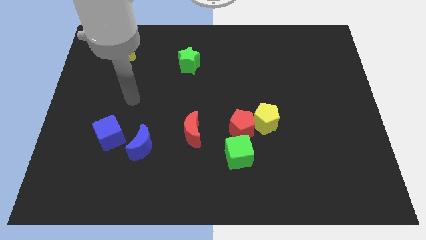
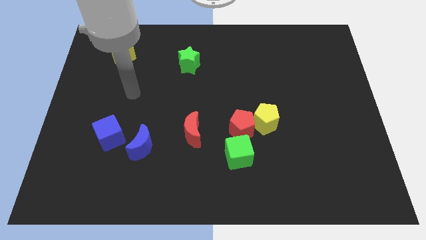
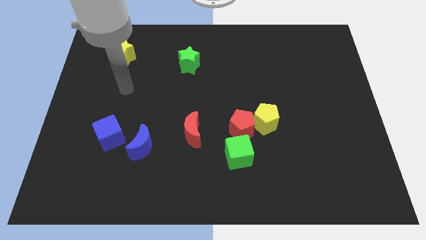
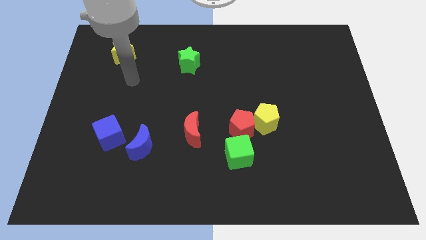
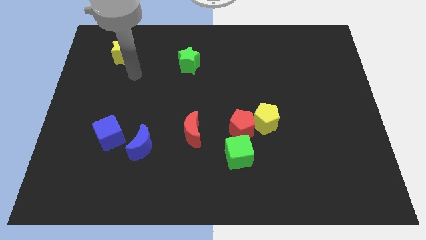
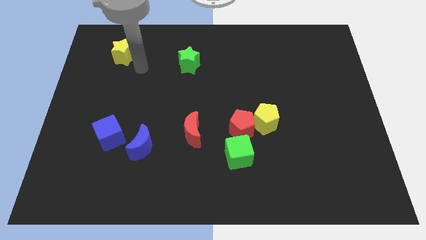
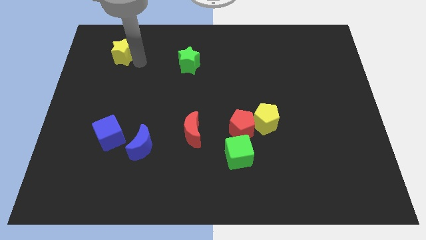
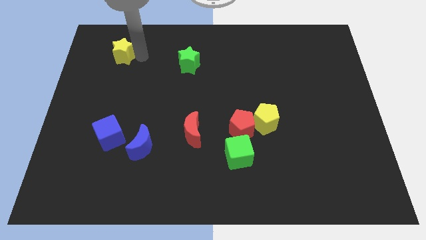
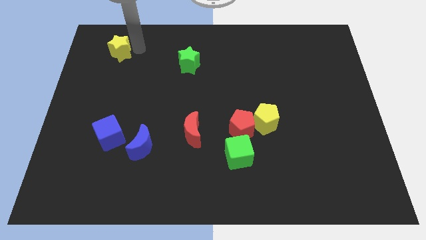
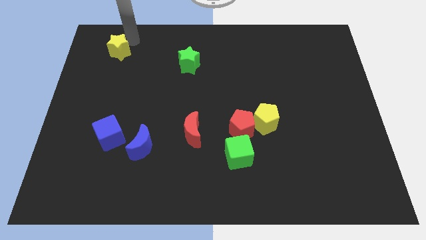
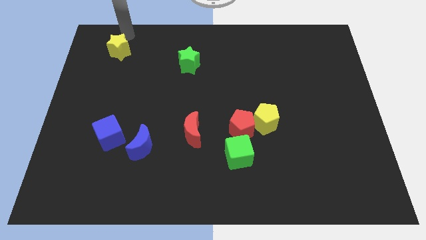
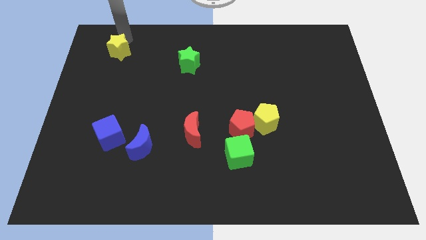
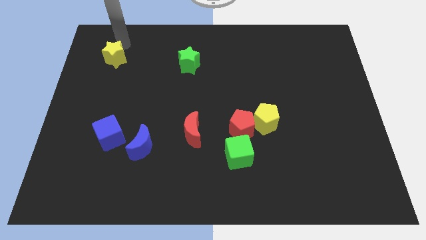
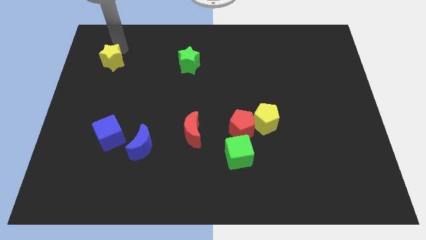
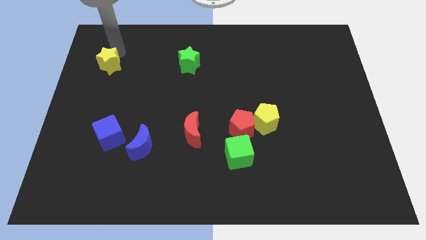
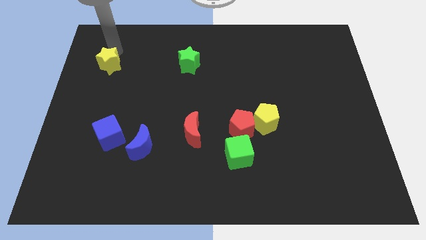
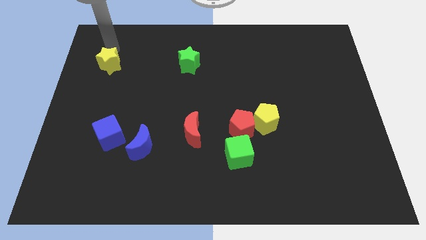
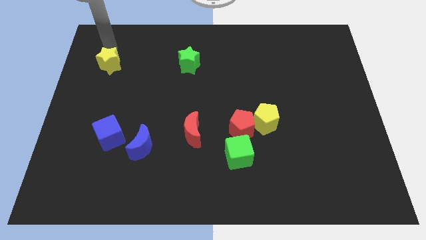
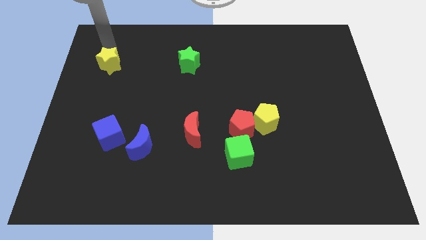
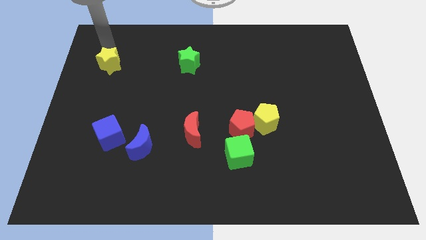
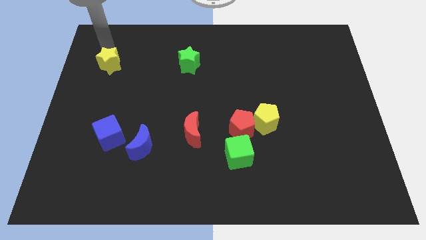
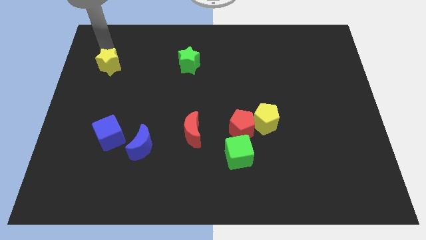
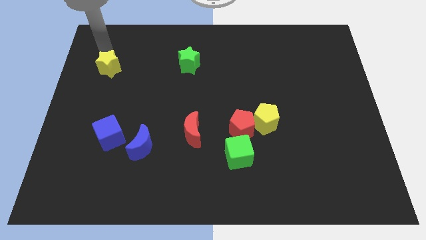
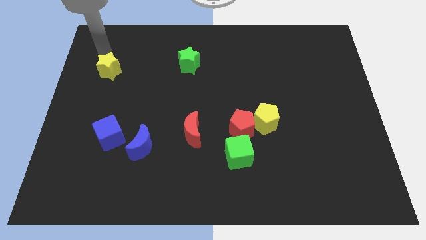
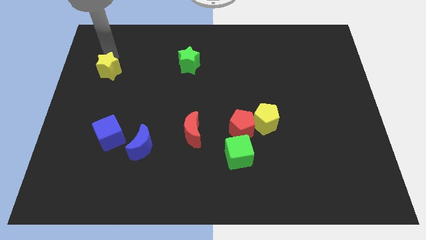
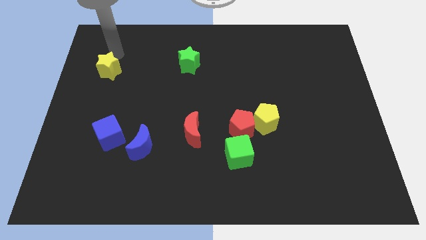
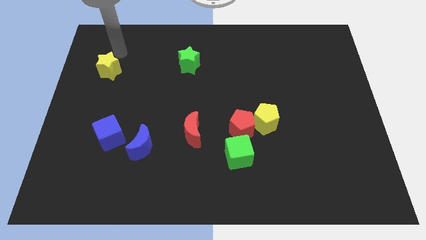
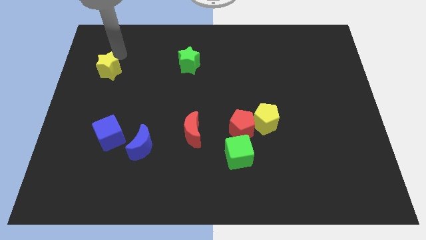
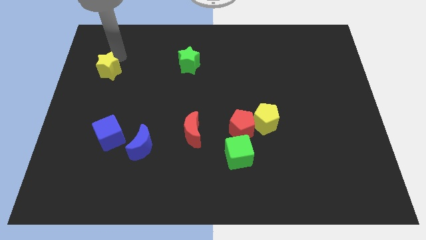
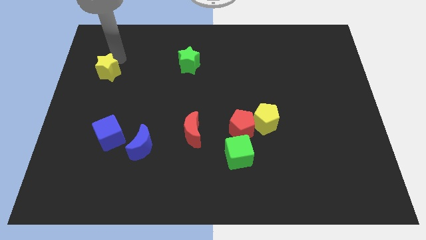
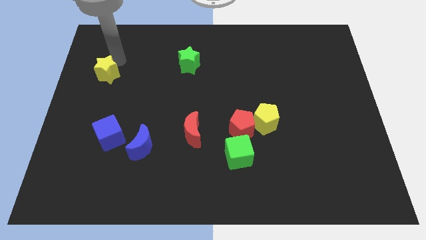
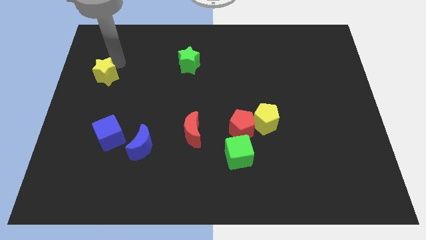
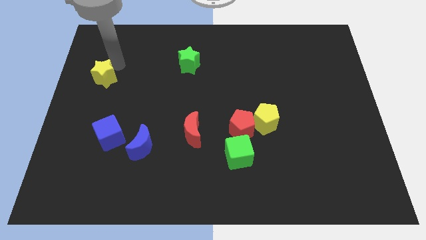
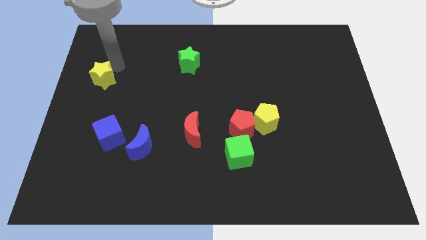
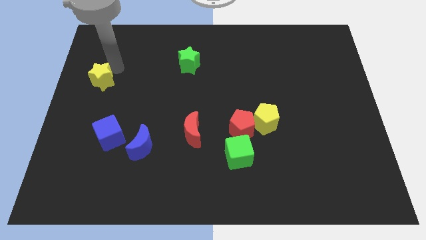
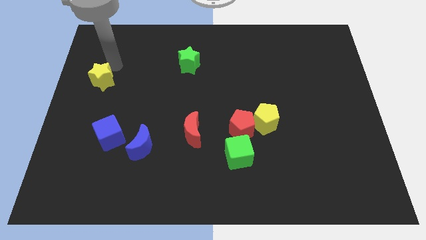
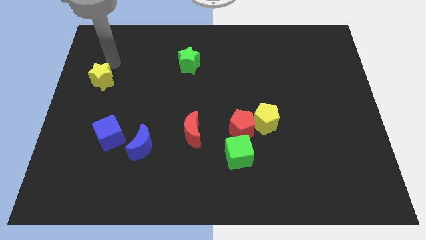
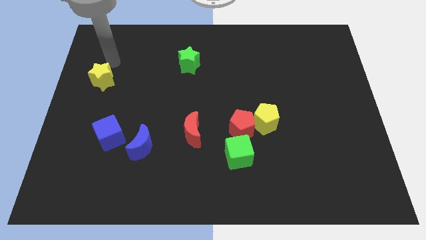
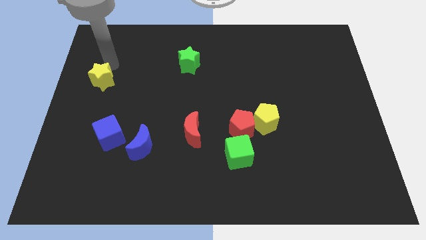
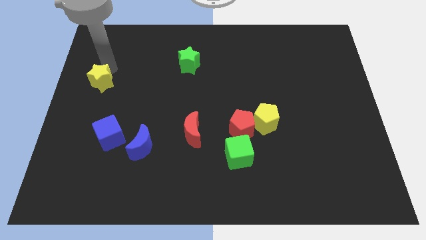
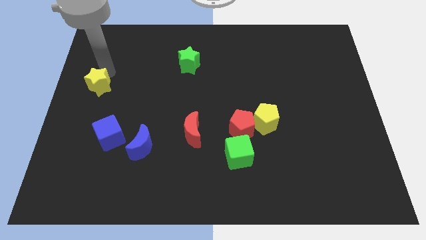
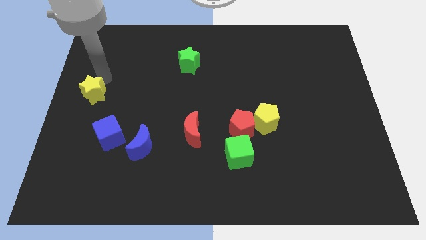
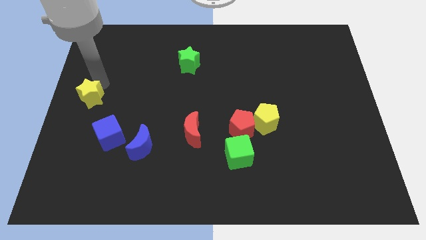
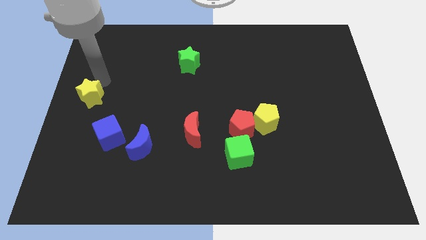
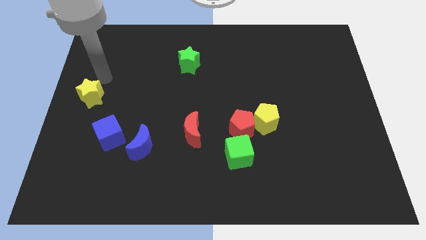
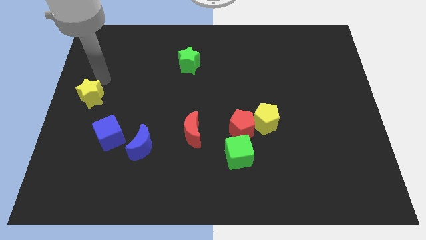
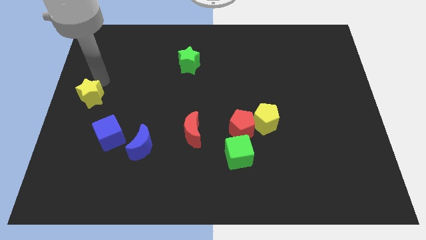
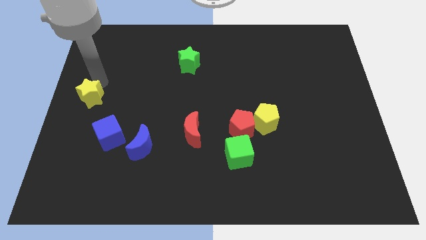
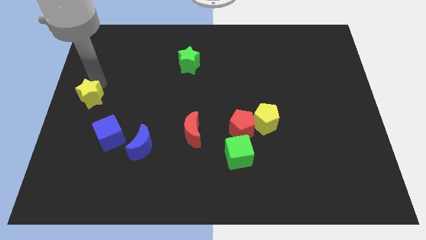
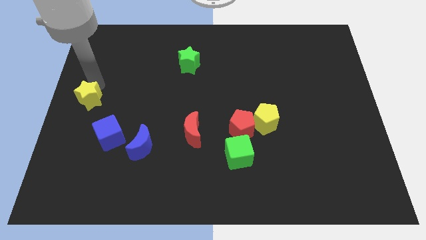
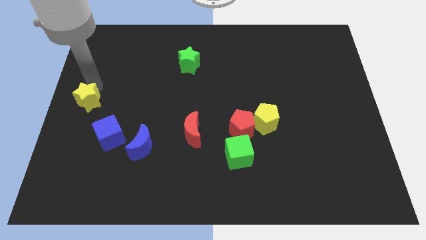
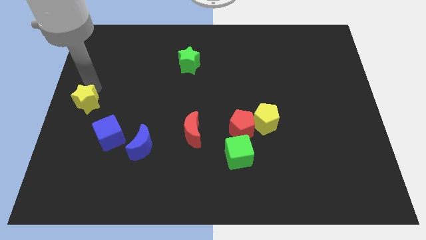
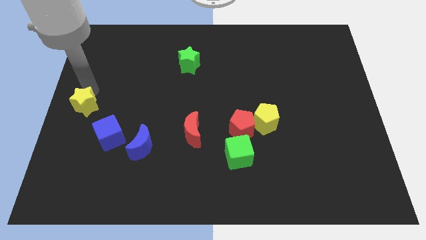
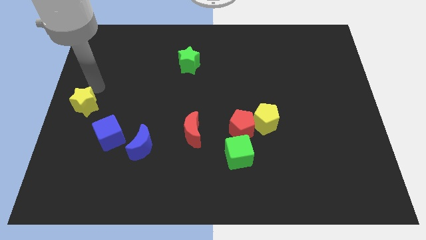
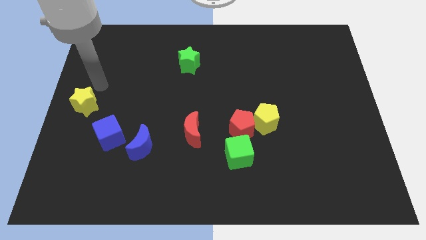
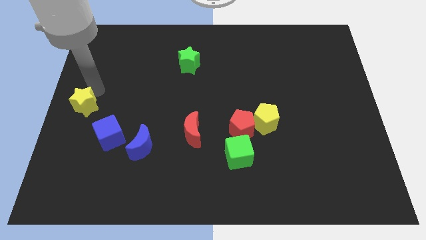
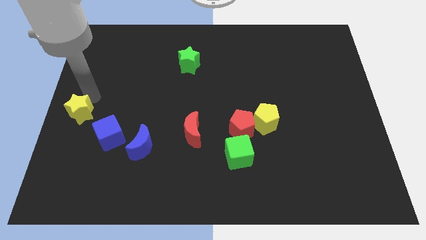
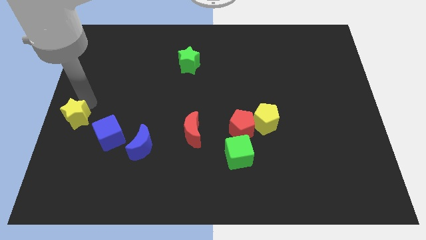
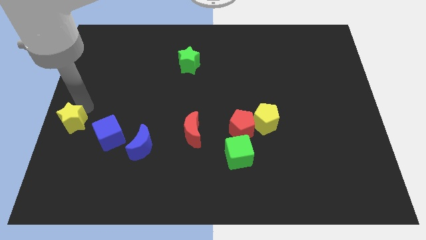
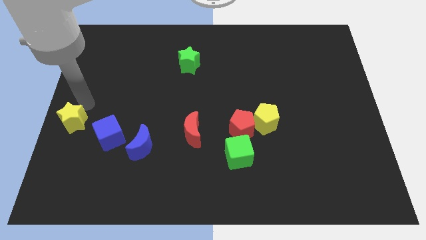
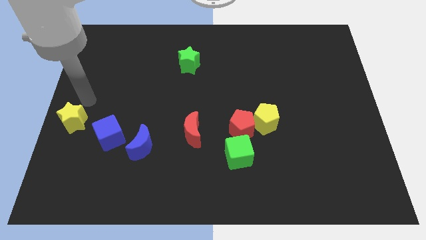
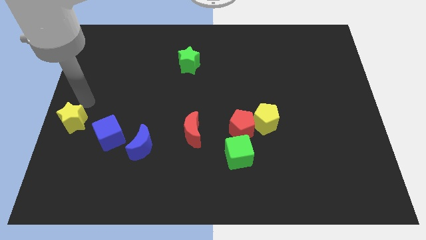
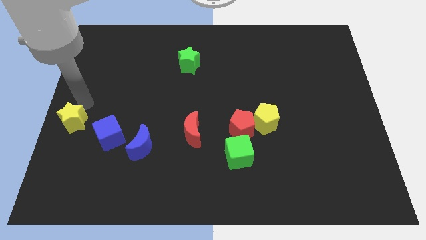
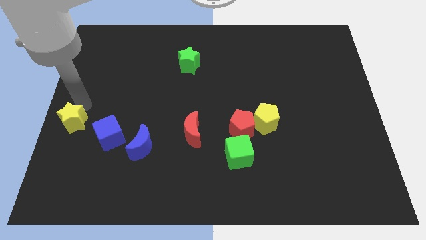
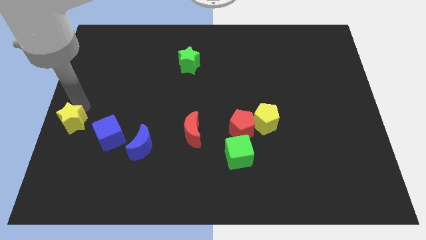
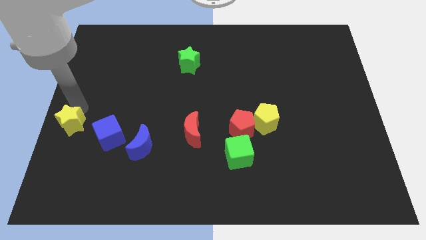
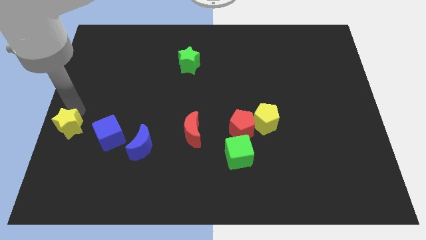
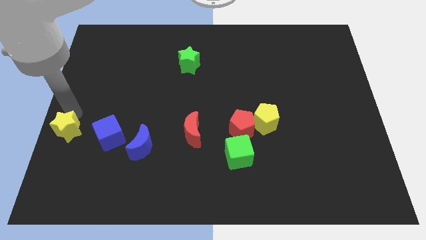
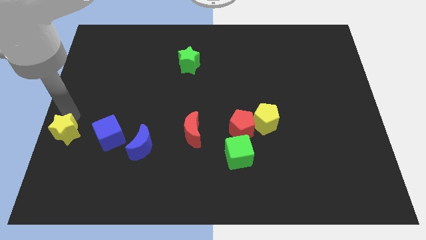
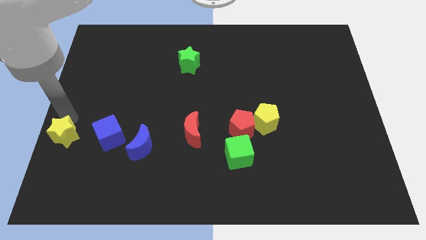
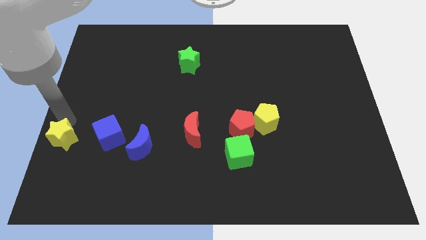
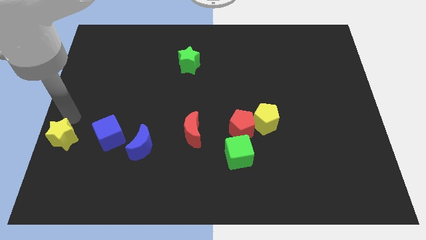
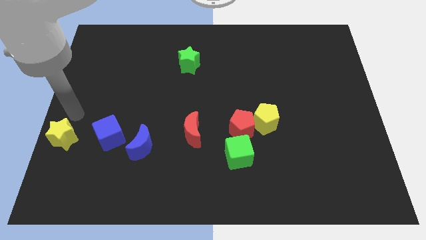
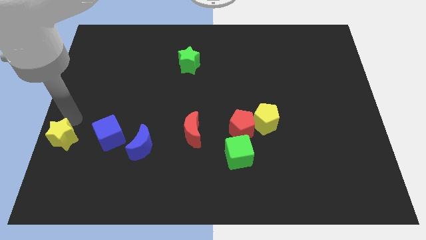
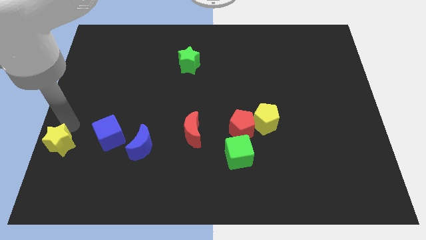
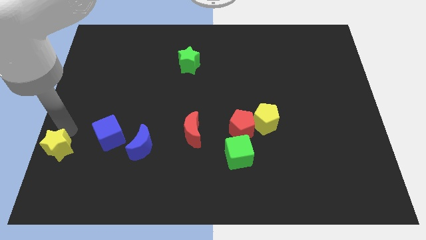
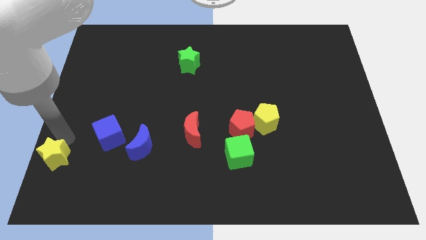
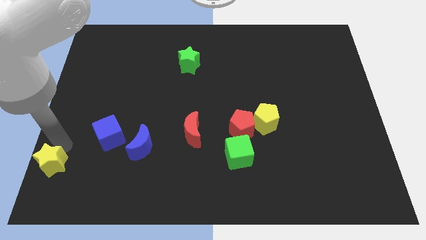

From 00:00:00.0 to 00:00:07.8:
push the yellow star to the bottom left of the board
